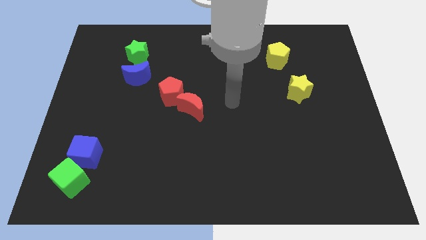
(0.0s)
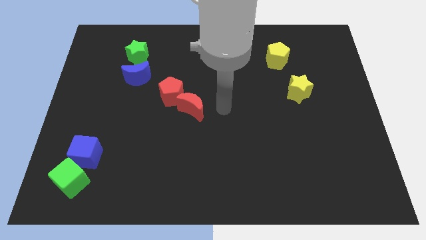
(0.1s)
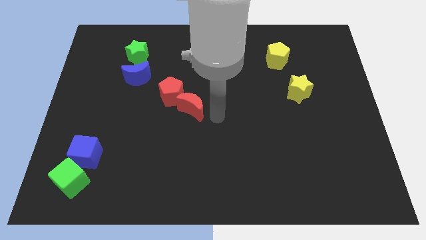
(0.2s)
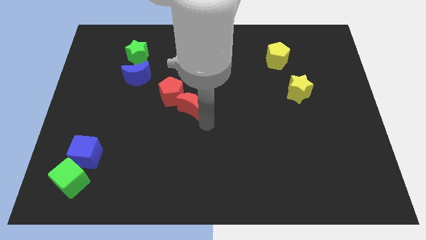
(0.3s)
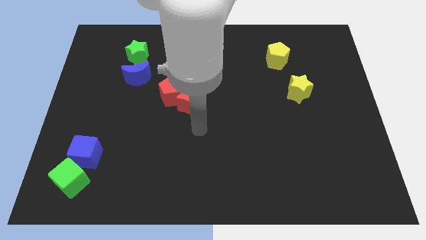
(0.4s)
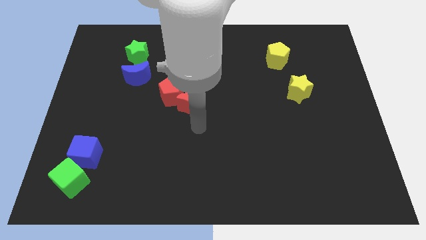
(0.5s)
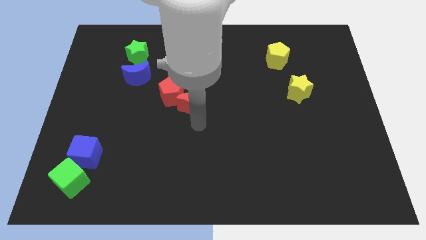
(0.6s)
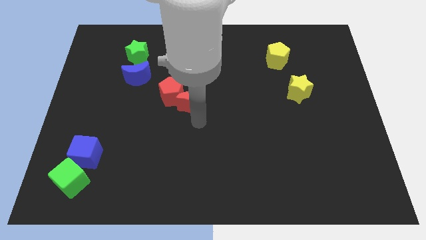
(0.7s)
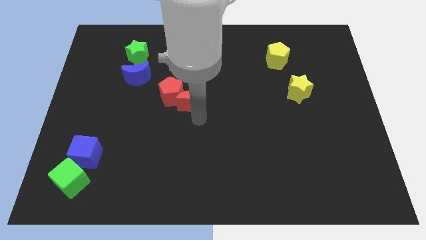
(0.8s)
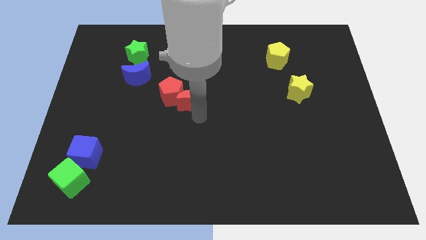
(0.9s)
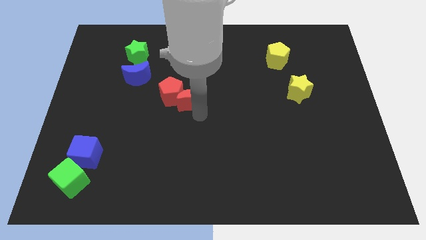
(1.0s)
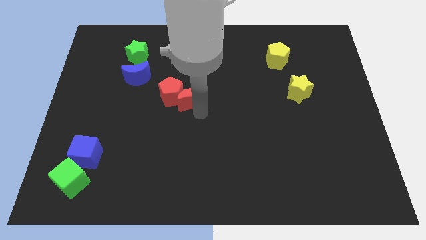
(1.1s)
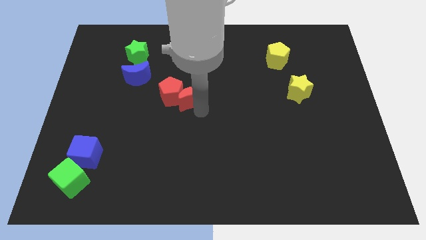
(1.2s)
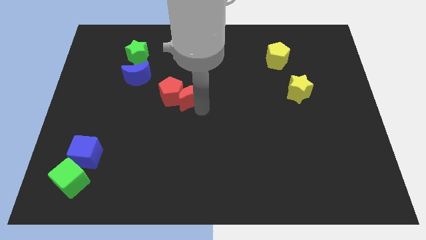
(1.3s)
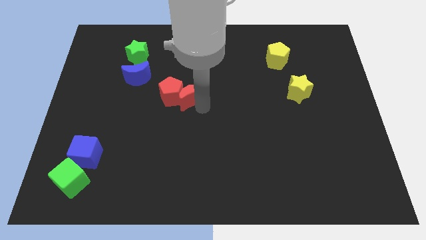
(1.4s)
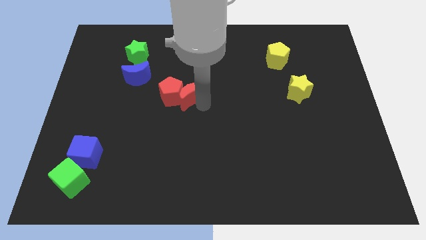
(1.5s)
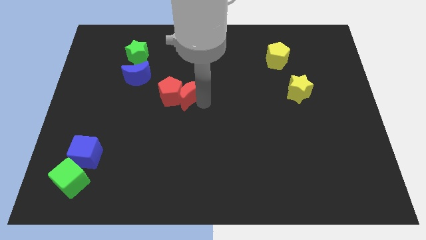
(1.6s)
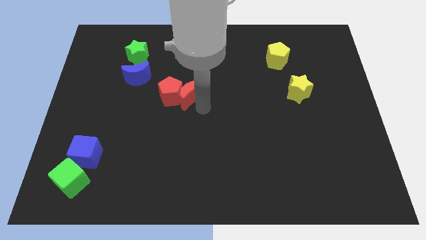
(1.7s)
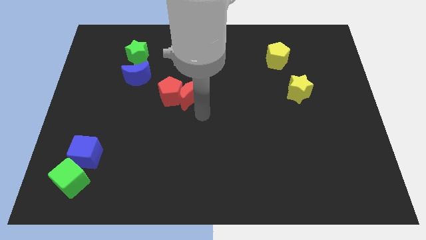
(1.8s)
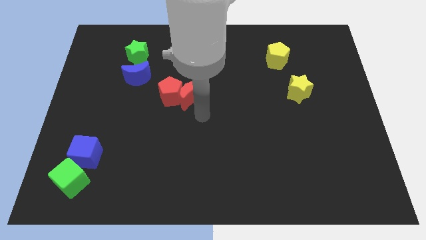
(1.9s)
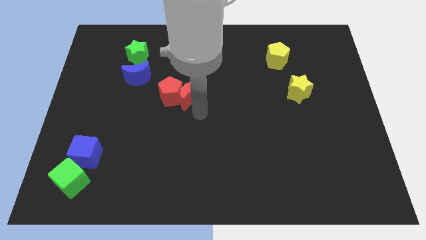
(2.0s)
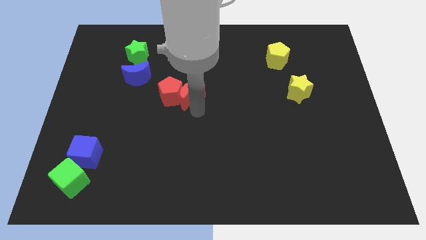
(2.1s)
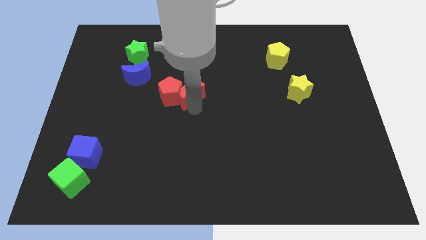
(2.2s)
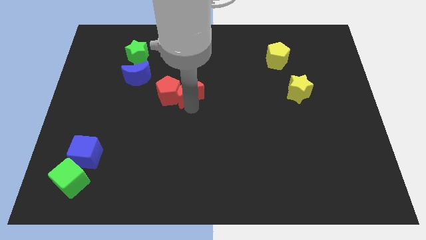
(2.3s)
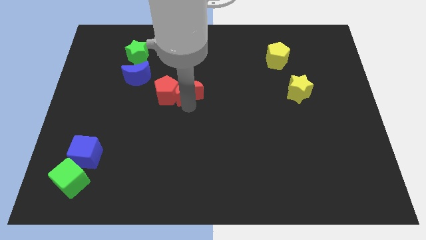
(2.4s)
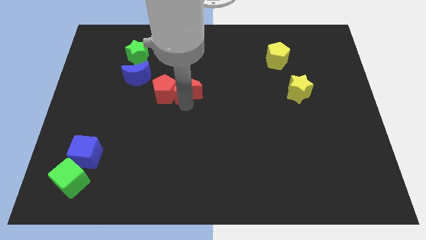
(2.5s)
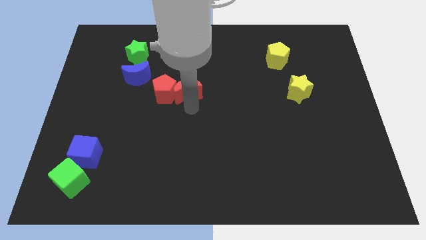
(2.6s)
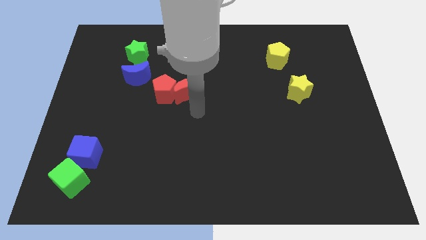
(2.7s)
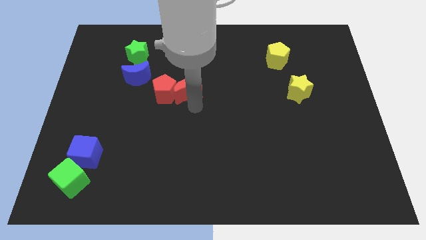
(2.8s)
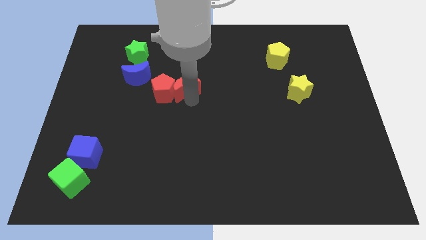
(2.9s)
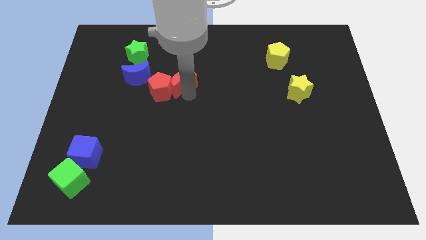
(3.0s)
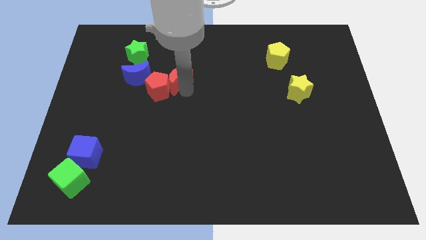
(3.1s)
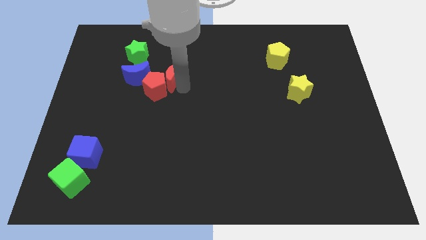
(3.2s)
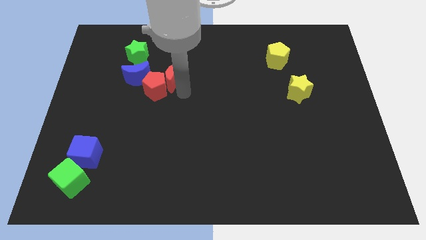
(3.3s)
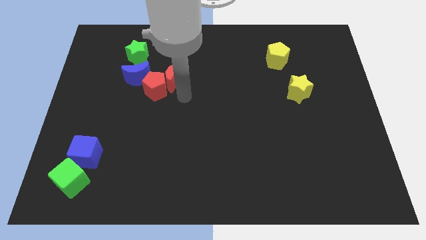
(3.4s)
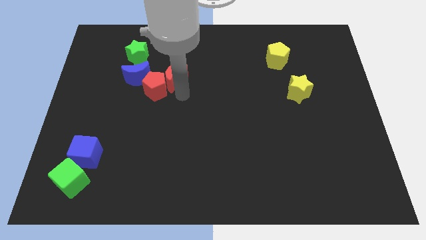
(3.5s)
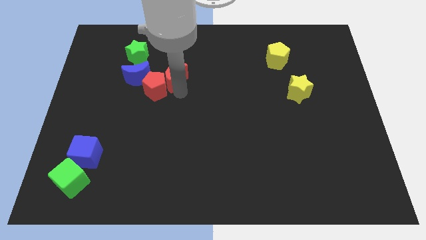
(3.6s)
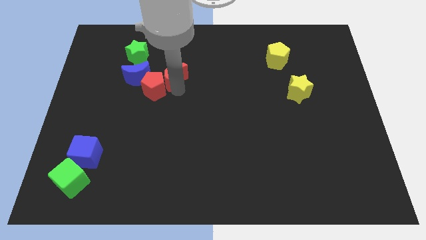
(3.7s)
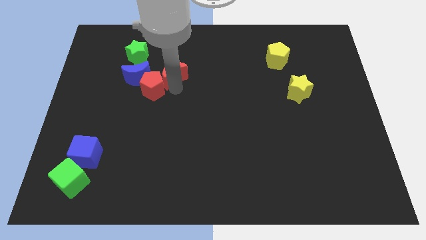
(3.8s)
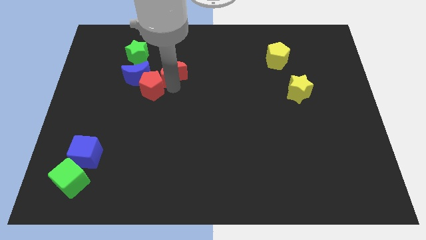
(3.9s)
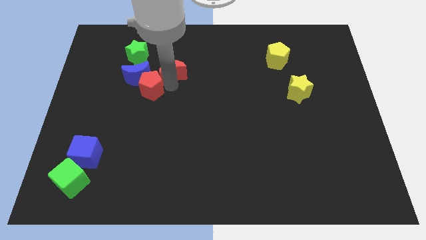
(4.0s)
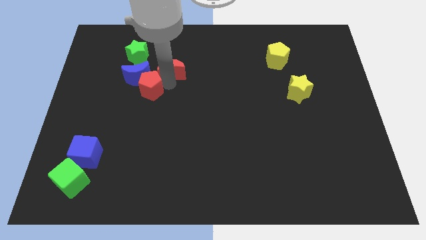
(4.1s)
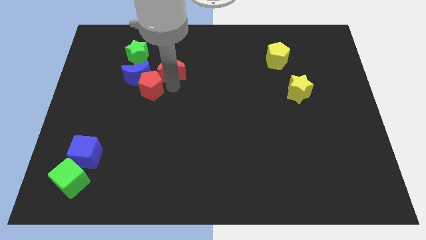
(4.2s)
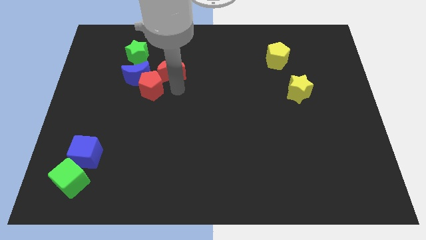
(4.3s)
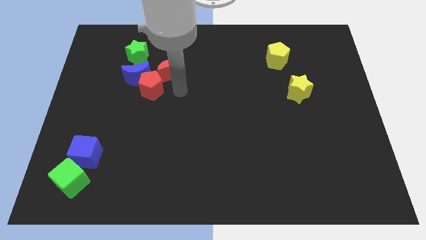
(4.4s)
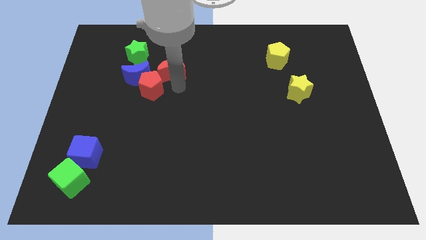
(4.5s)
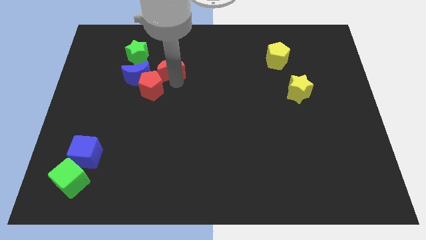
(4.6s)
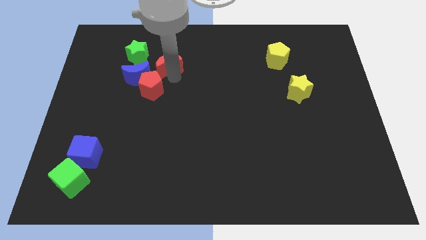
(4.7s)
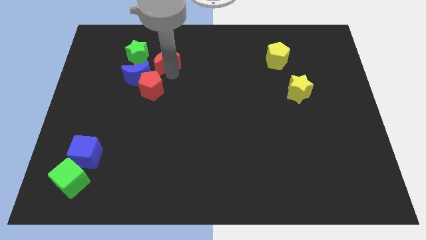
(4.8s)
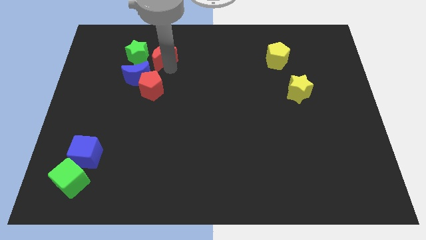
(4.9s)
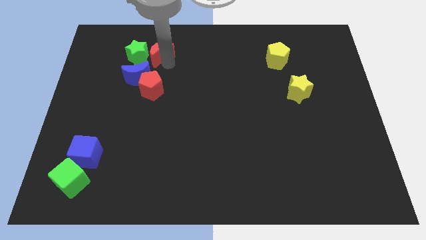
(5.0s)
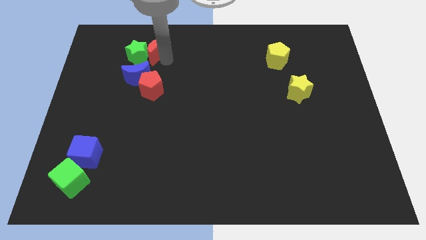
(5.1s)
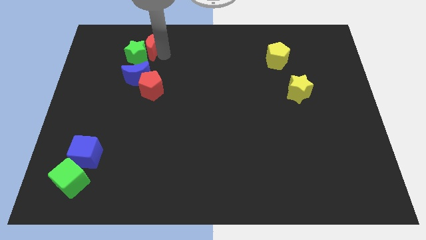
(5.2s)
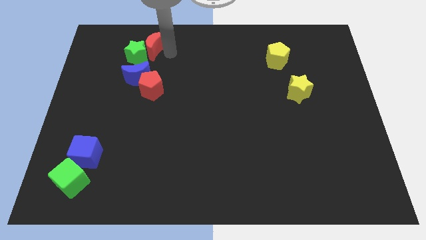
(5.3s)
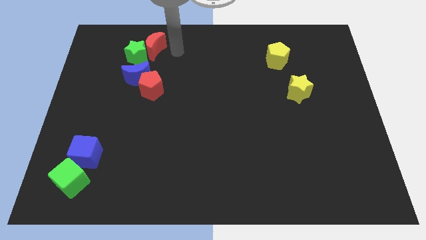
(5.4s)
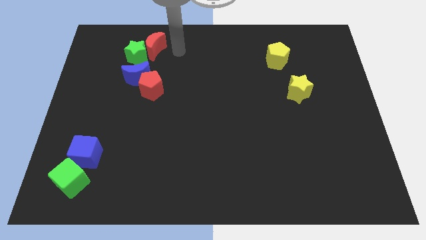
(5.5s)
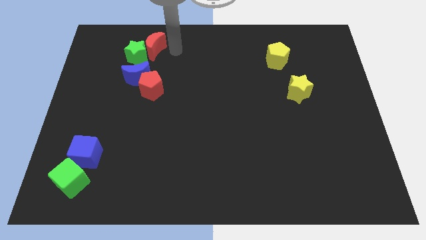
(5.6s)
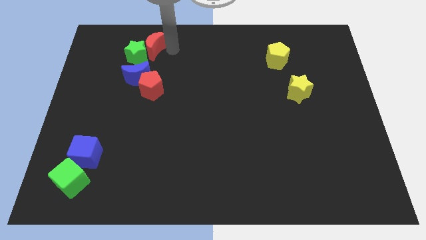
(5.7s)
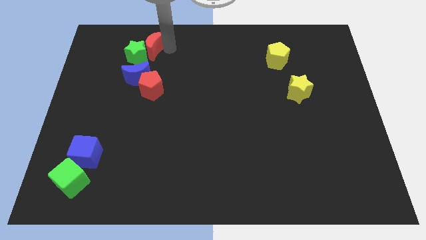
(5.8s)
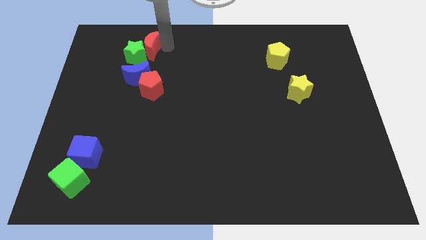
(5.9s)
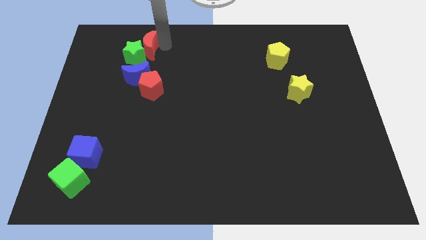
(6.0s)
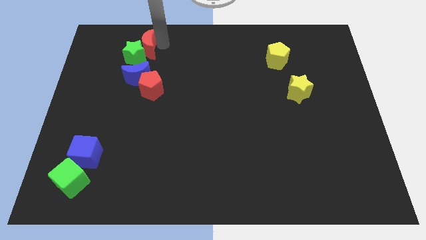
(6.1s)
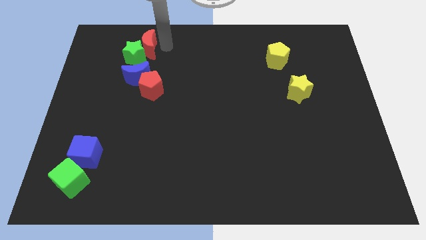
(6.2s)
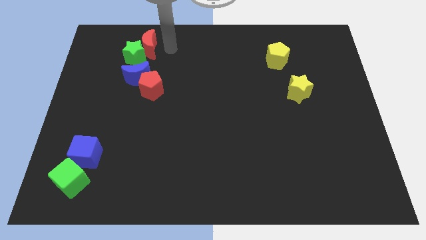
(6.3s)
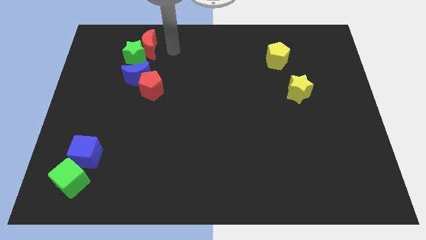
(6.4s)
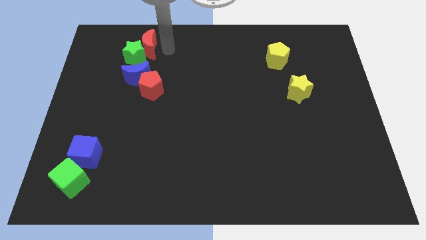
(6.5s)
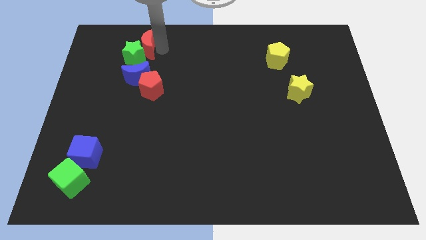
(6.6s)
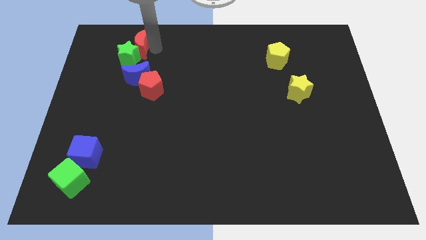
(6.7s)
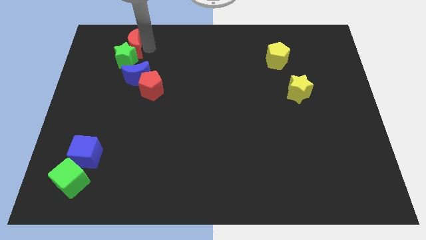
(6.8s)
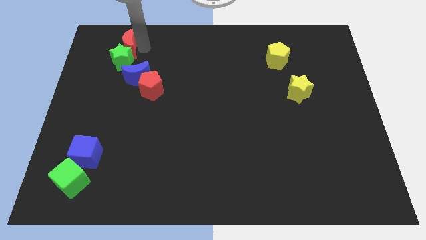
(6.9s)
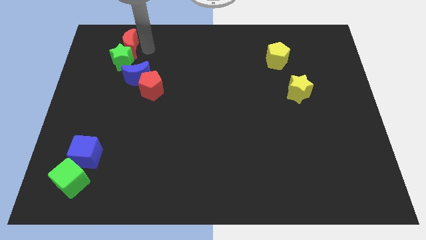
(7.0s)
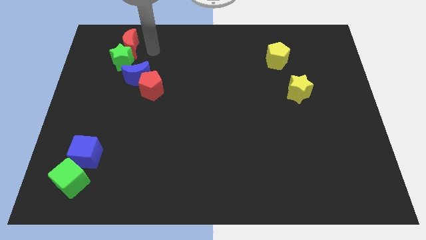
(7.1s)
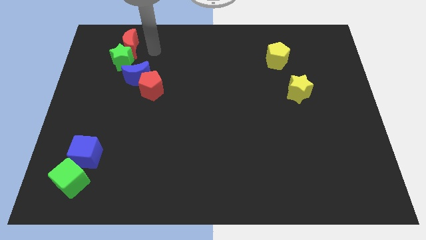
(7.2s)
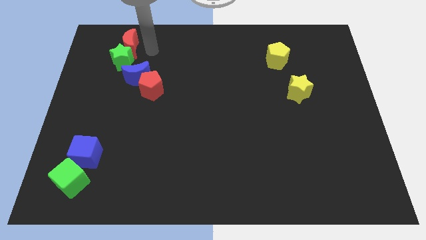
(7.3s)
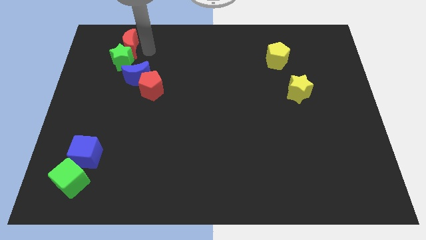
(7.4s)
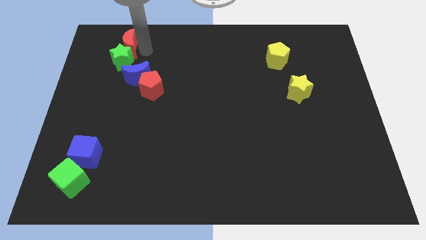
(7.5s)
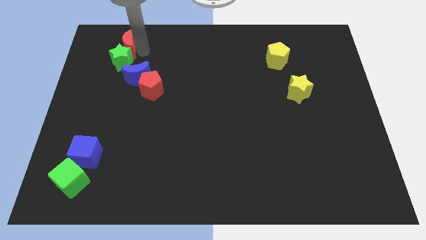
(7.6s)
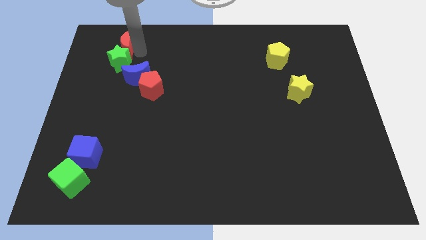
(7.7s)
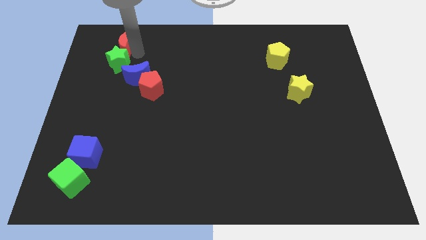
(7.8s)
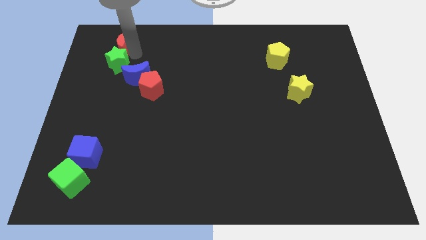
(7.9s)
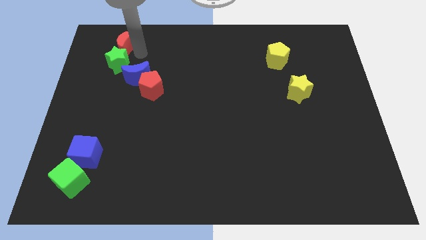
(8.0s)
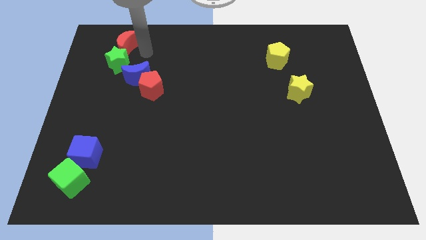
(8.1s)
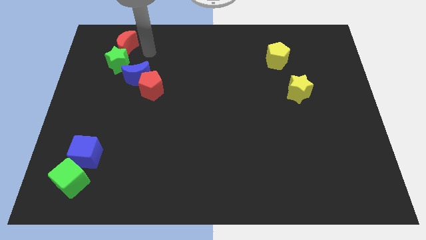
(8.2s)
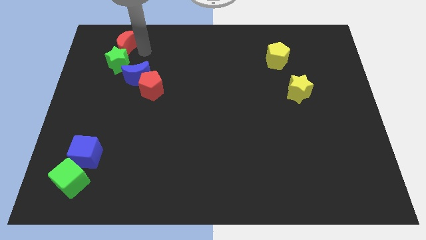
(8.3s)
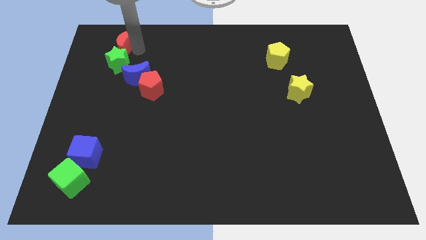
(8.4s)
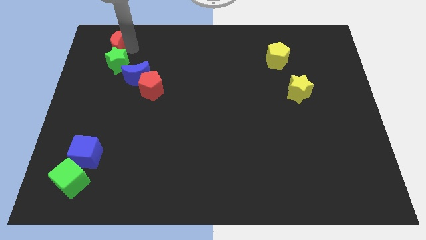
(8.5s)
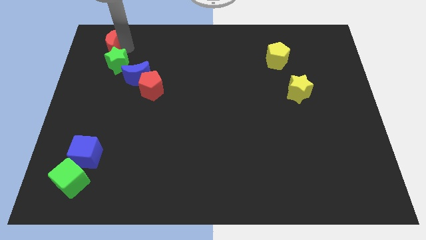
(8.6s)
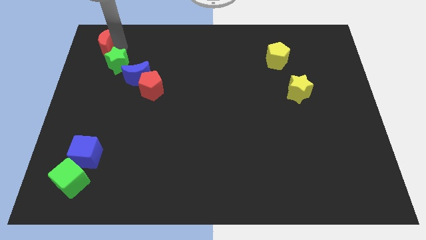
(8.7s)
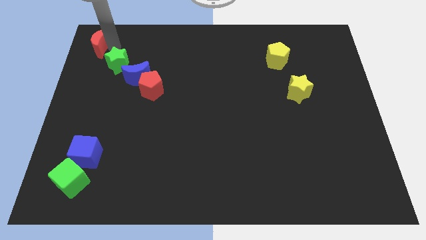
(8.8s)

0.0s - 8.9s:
move the red moon to the top left of the board
